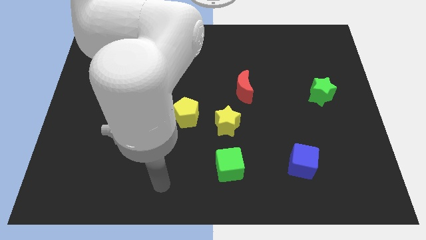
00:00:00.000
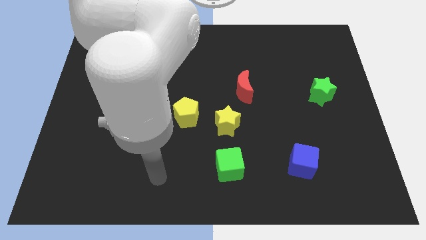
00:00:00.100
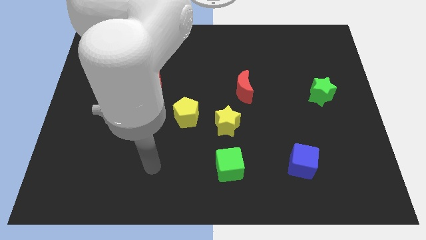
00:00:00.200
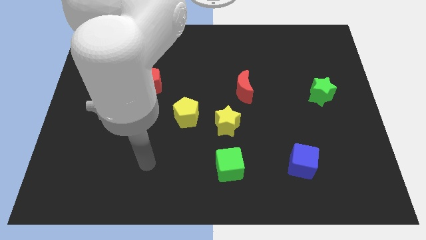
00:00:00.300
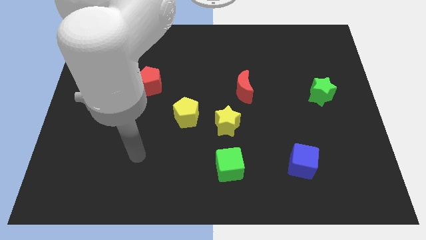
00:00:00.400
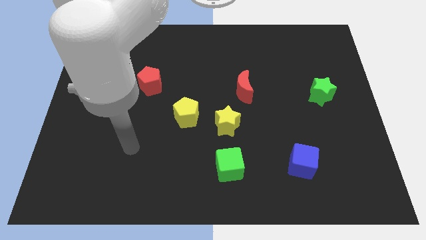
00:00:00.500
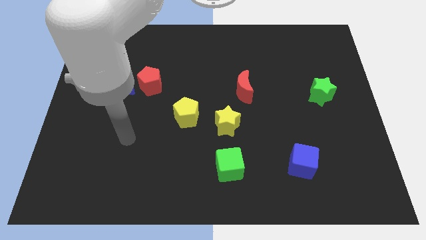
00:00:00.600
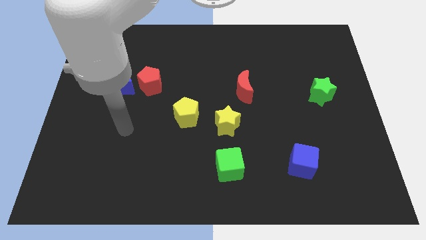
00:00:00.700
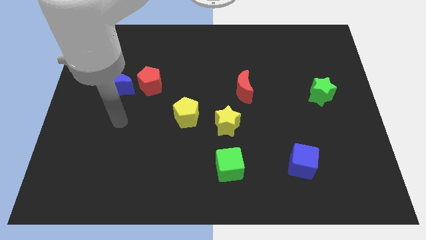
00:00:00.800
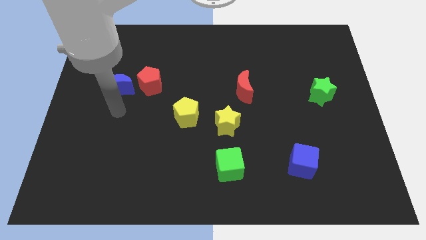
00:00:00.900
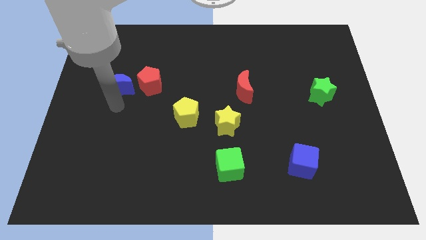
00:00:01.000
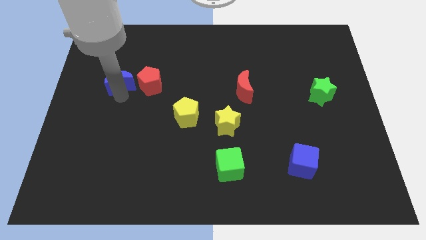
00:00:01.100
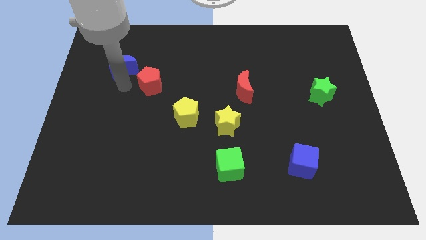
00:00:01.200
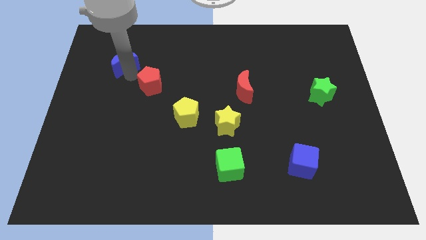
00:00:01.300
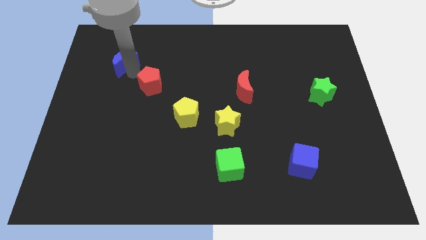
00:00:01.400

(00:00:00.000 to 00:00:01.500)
pull the red pentagon apart from the blue moon

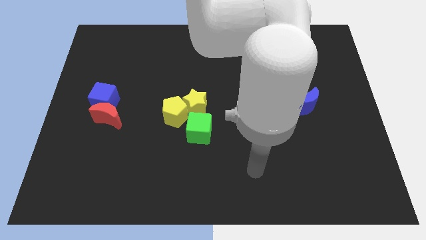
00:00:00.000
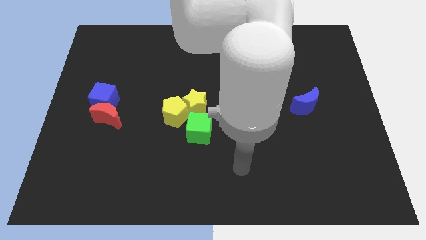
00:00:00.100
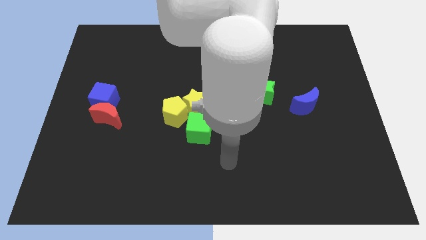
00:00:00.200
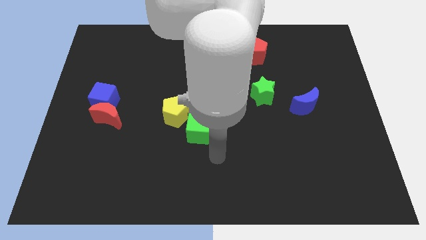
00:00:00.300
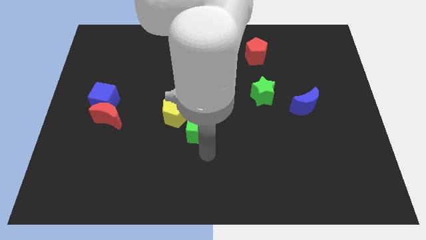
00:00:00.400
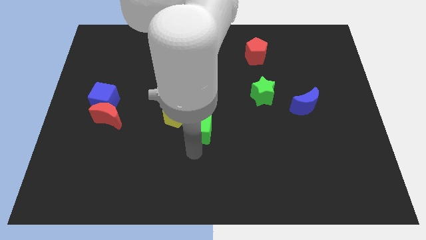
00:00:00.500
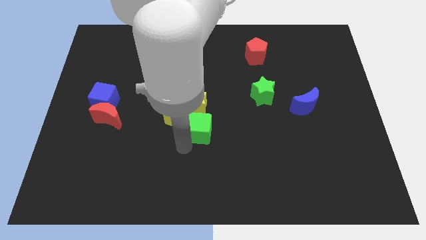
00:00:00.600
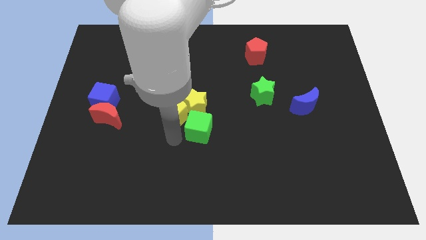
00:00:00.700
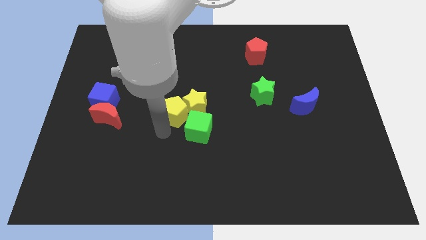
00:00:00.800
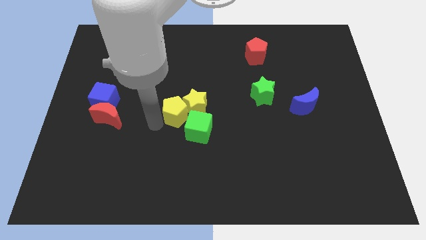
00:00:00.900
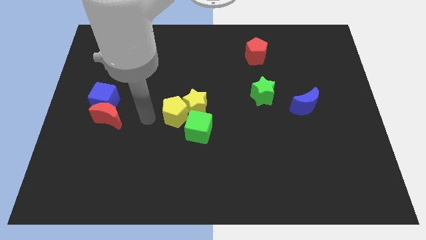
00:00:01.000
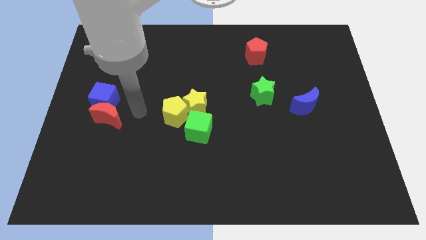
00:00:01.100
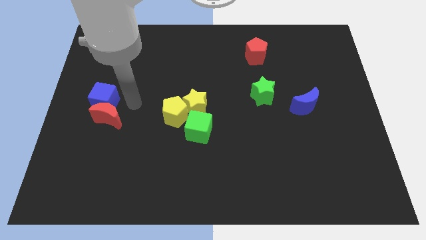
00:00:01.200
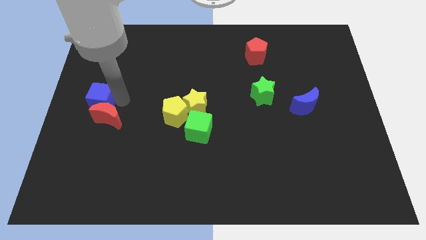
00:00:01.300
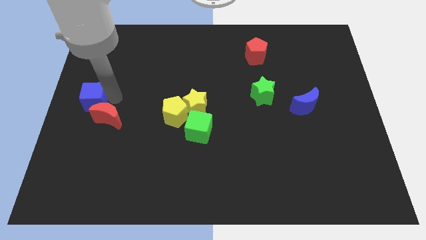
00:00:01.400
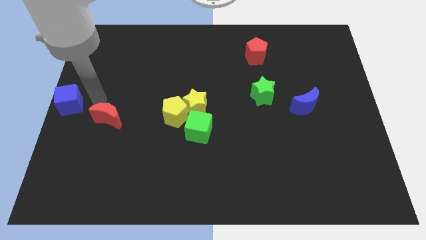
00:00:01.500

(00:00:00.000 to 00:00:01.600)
separate the red moon from the blue cube

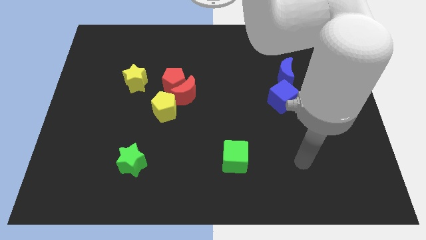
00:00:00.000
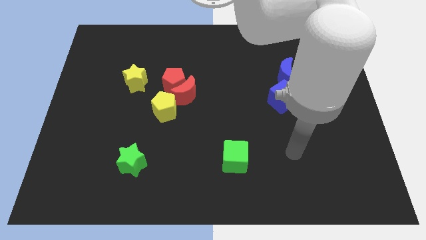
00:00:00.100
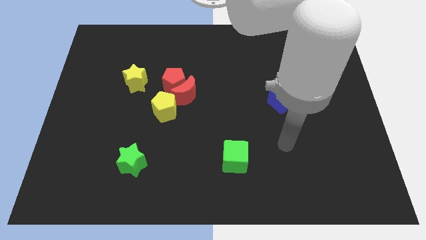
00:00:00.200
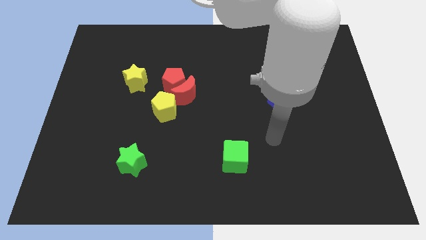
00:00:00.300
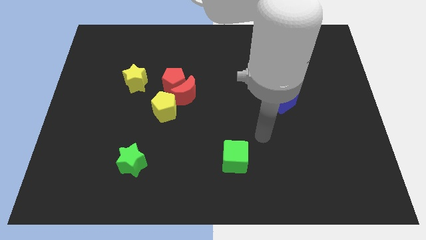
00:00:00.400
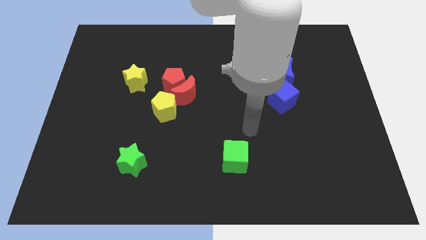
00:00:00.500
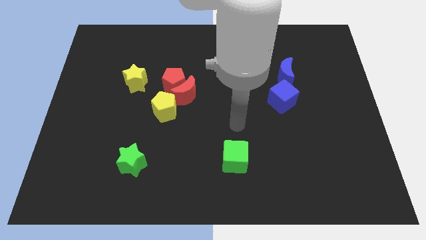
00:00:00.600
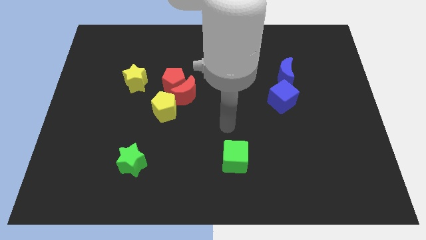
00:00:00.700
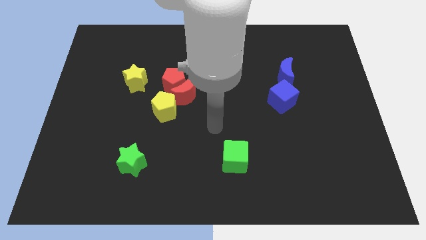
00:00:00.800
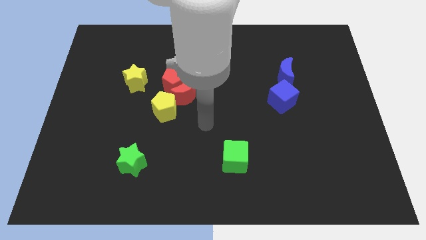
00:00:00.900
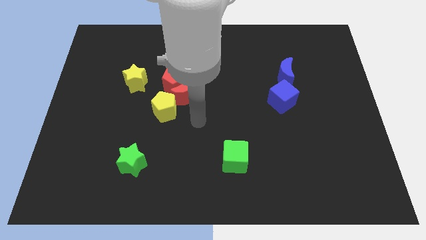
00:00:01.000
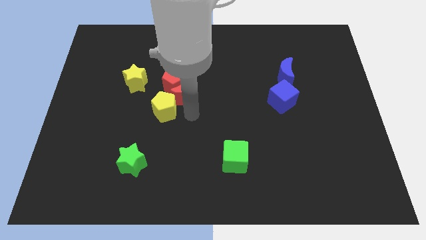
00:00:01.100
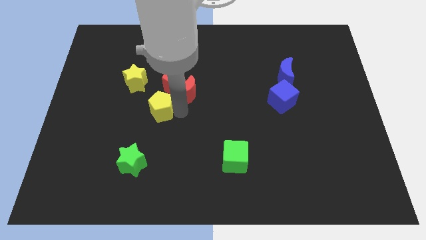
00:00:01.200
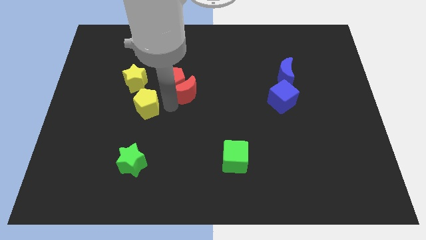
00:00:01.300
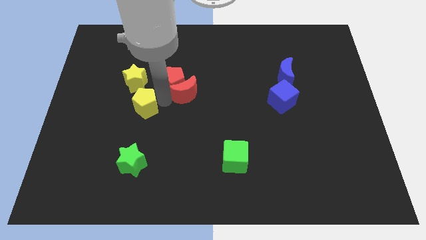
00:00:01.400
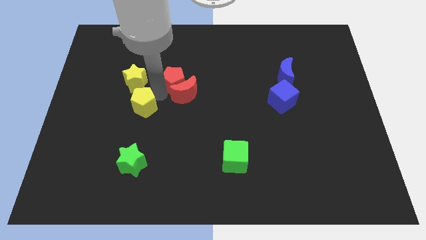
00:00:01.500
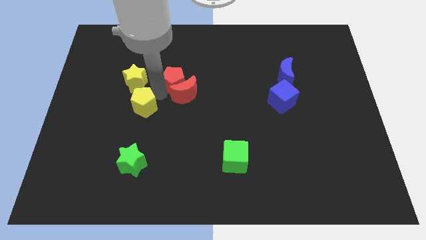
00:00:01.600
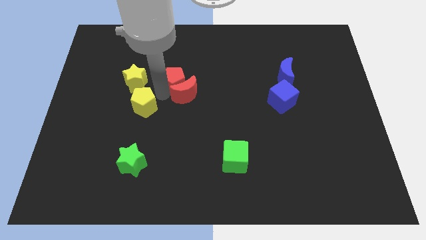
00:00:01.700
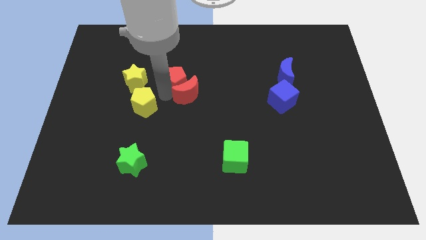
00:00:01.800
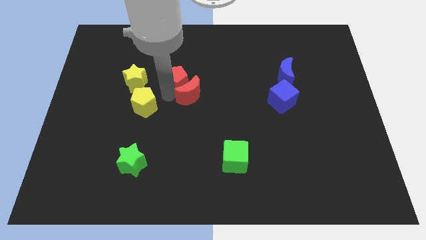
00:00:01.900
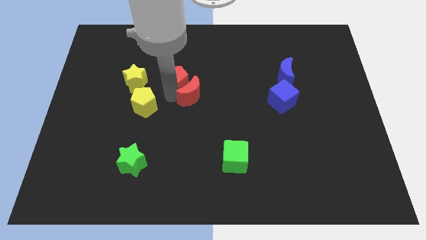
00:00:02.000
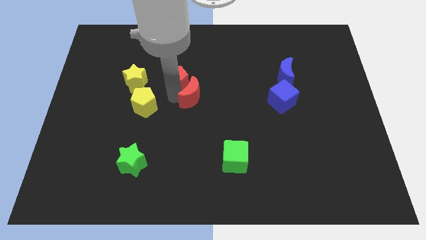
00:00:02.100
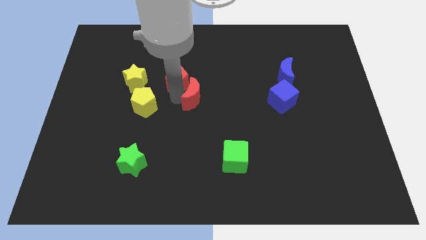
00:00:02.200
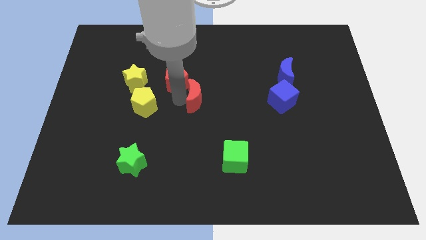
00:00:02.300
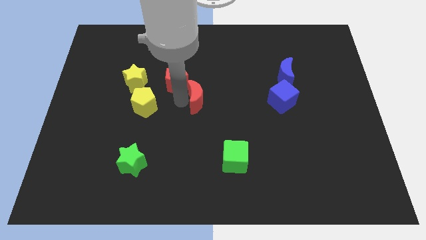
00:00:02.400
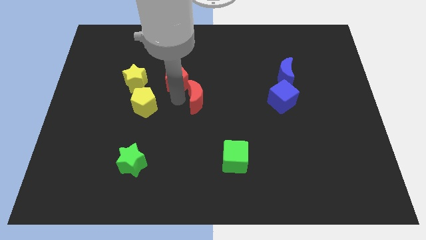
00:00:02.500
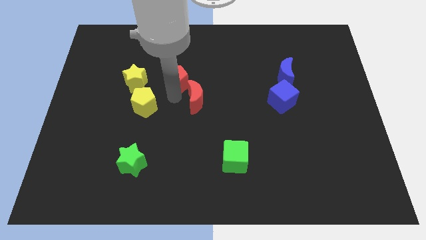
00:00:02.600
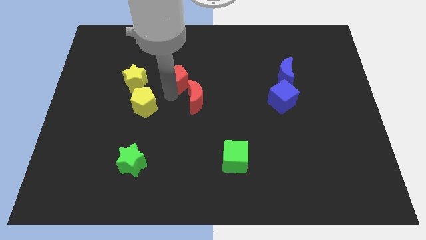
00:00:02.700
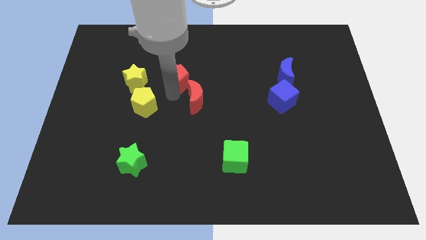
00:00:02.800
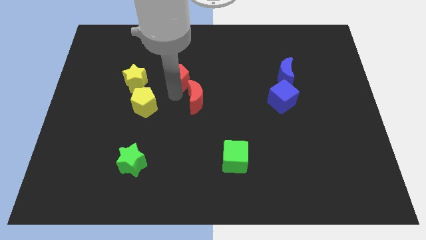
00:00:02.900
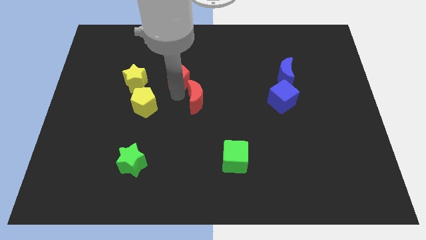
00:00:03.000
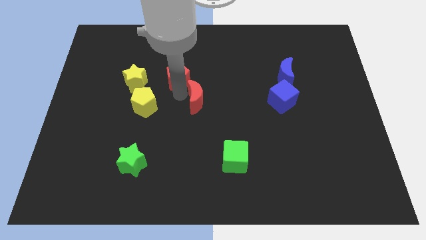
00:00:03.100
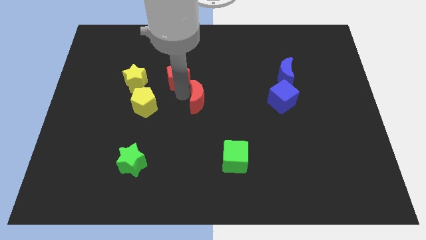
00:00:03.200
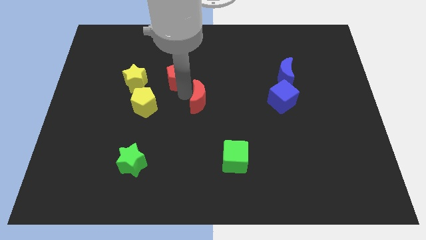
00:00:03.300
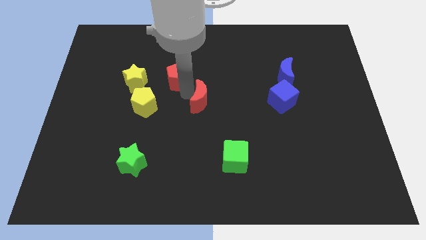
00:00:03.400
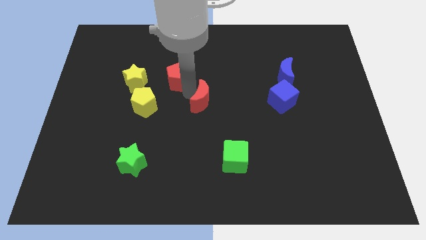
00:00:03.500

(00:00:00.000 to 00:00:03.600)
move the red moon away from the red pentagon and yellow pentagon

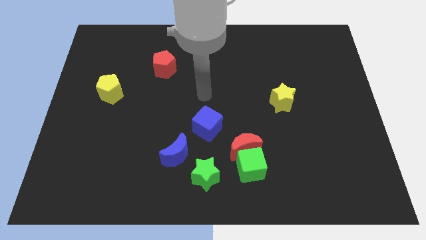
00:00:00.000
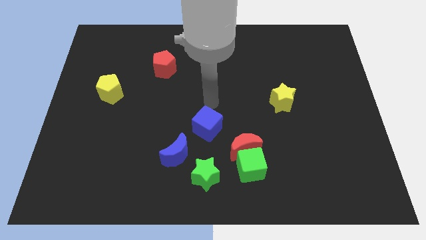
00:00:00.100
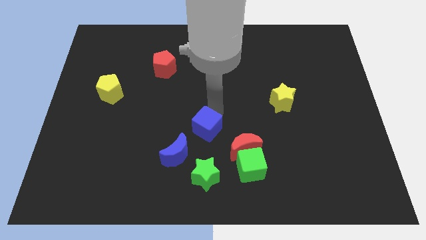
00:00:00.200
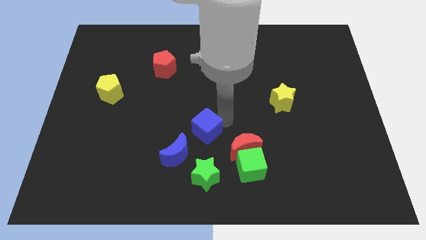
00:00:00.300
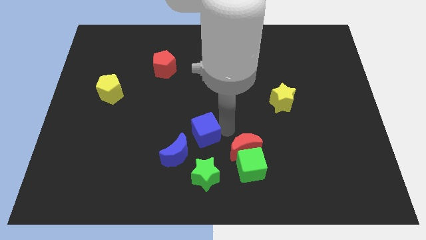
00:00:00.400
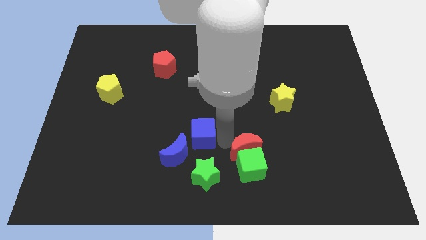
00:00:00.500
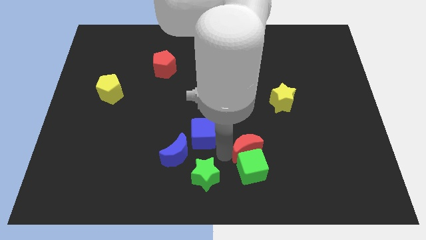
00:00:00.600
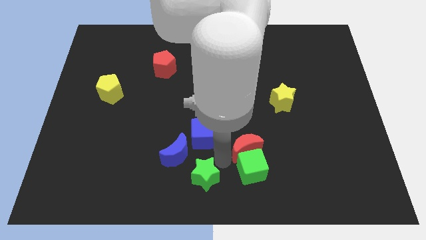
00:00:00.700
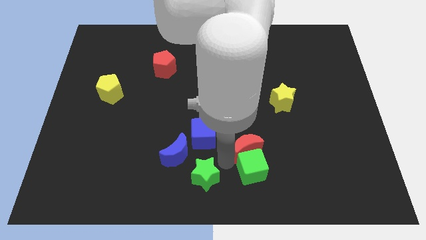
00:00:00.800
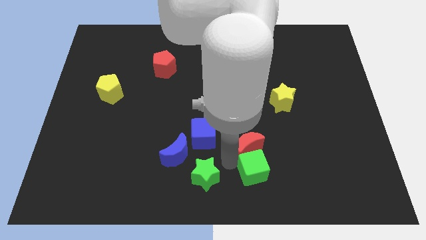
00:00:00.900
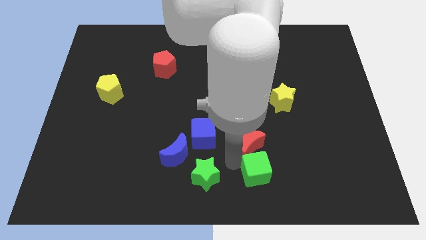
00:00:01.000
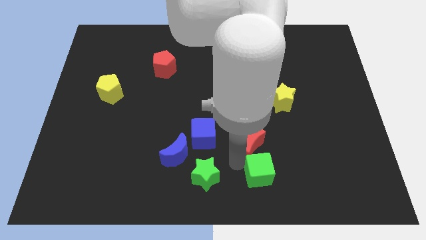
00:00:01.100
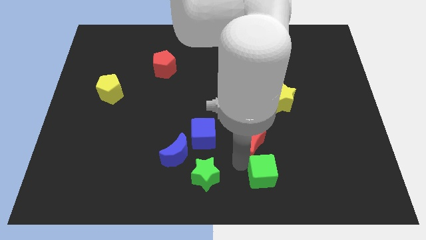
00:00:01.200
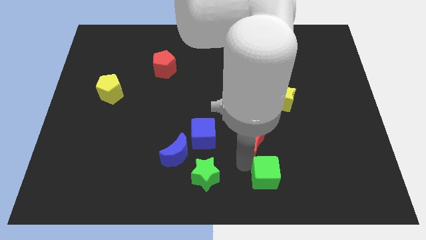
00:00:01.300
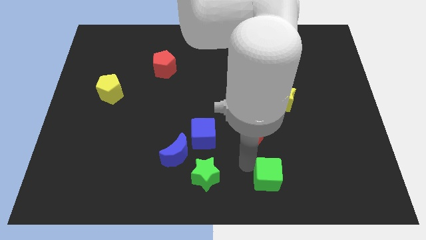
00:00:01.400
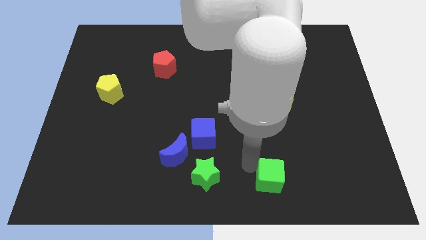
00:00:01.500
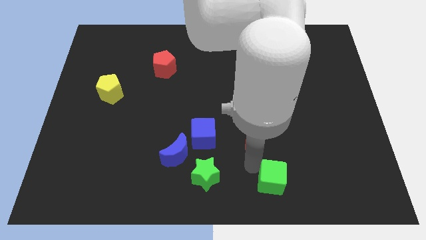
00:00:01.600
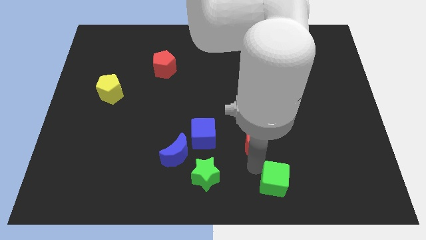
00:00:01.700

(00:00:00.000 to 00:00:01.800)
pull the green cube apart from the red moon and green star

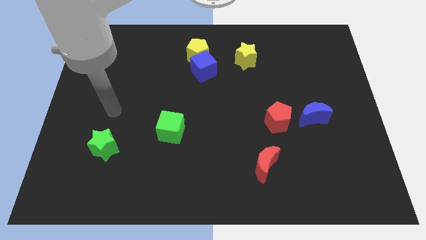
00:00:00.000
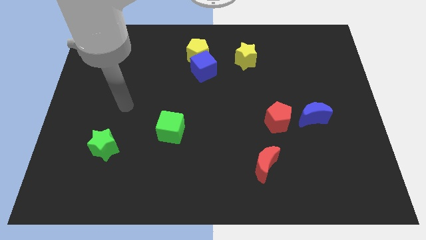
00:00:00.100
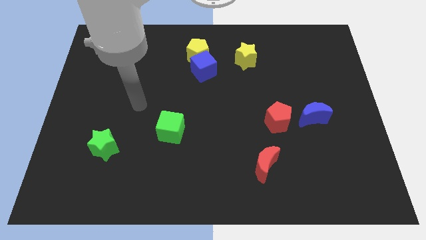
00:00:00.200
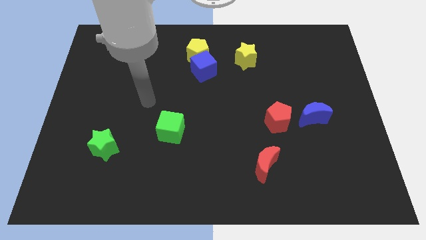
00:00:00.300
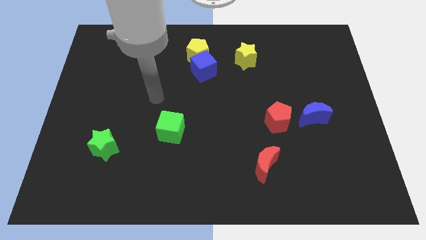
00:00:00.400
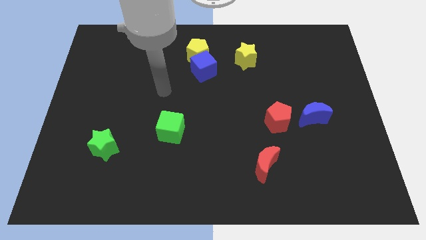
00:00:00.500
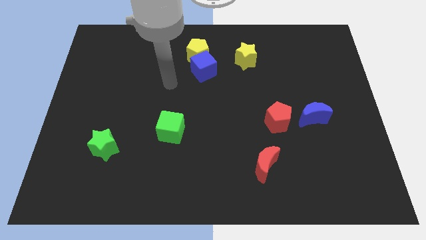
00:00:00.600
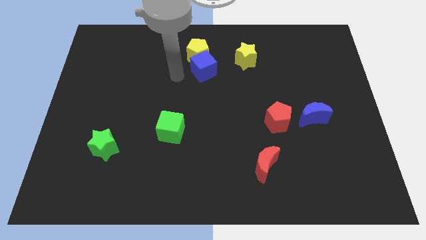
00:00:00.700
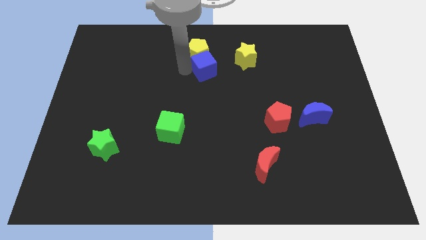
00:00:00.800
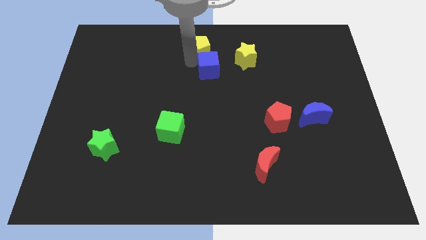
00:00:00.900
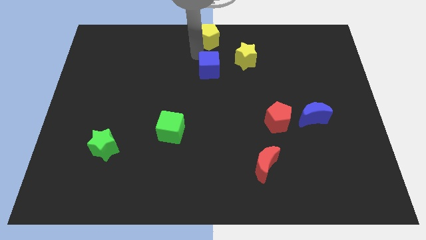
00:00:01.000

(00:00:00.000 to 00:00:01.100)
pull the blue cube apart from the yellow pentagon
